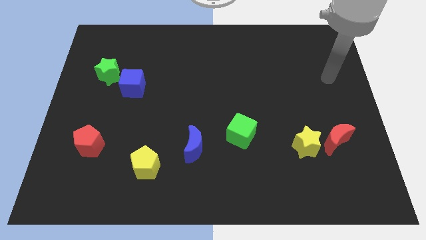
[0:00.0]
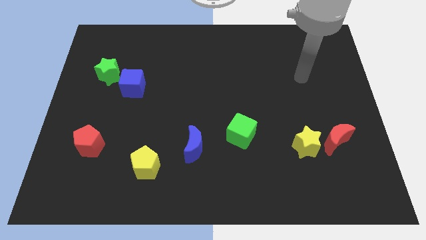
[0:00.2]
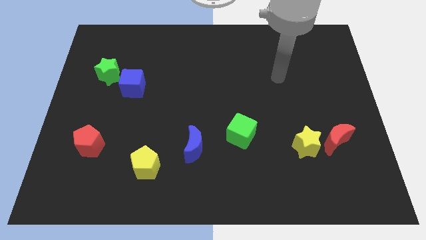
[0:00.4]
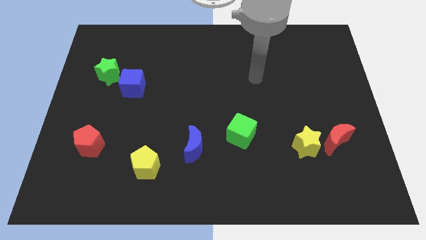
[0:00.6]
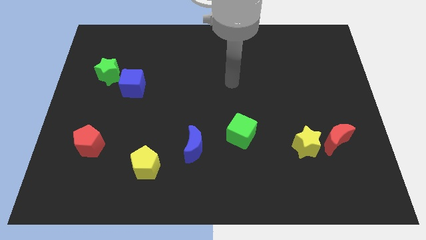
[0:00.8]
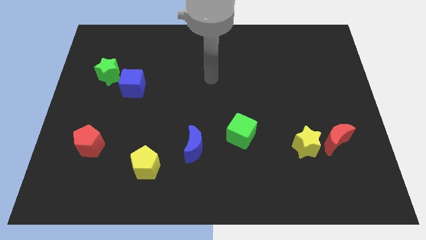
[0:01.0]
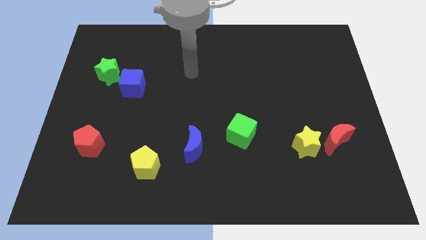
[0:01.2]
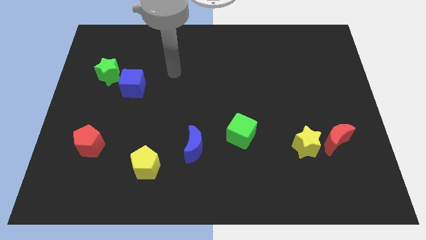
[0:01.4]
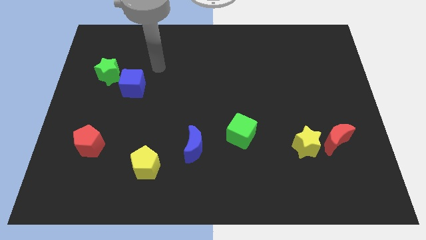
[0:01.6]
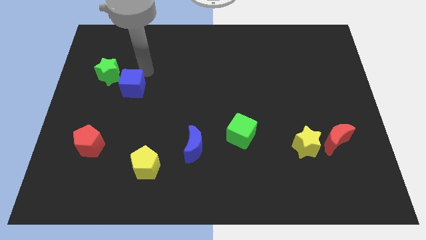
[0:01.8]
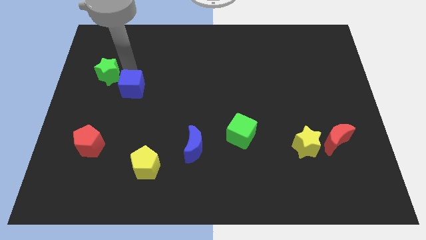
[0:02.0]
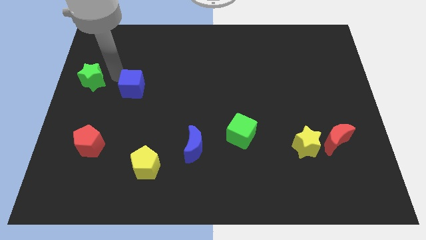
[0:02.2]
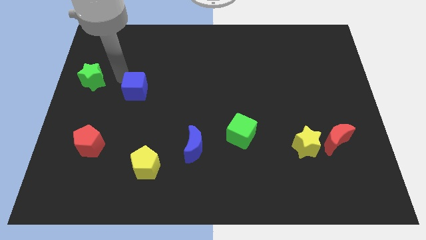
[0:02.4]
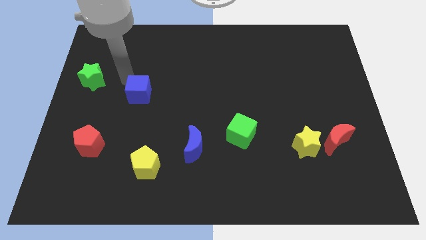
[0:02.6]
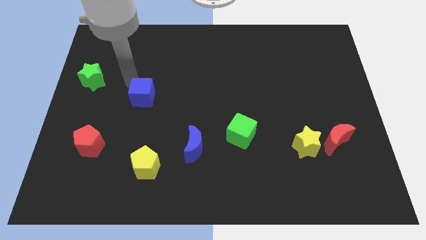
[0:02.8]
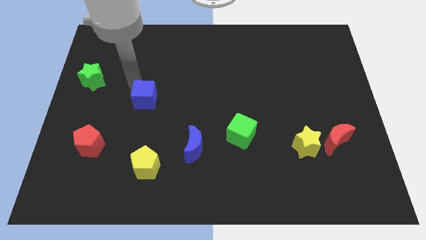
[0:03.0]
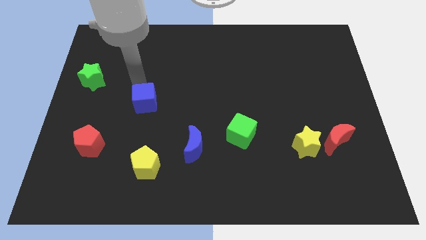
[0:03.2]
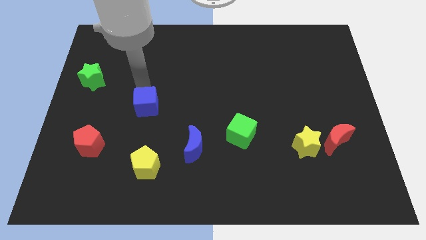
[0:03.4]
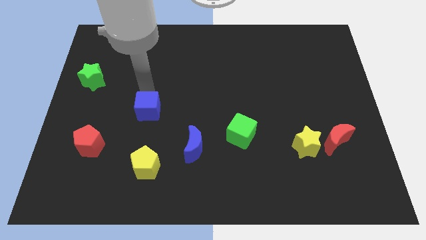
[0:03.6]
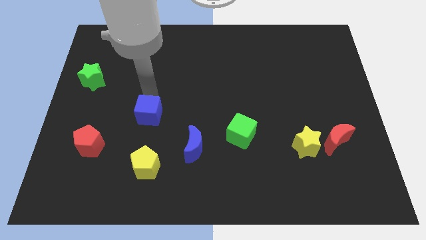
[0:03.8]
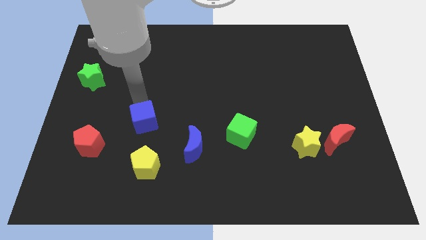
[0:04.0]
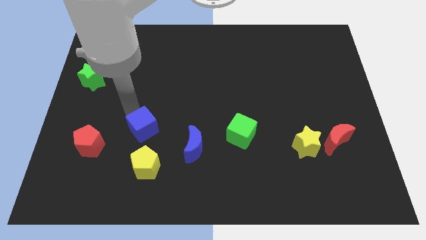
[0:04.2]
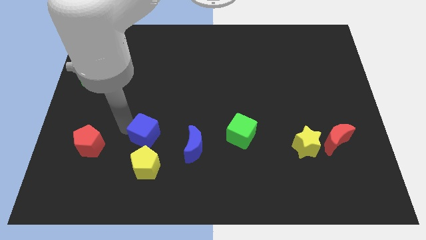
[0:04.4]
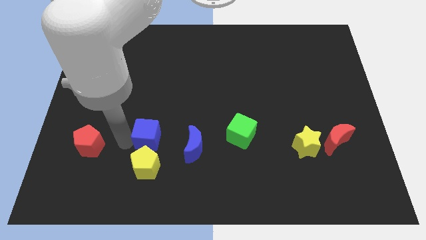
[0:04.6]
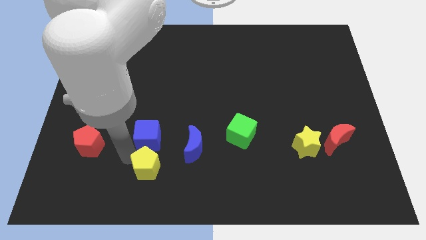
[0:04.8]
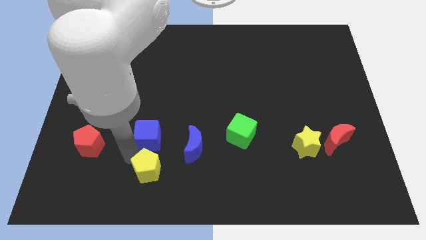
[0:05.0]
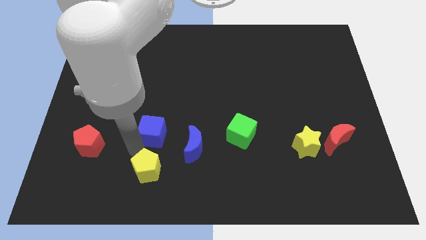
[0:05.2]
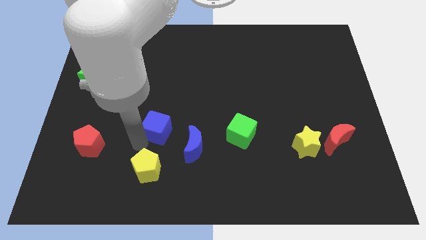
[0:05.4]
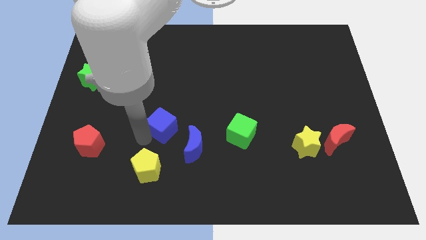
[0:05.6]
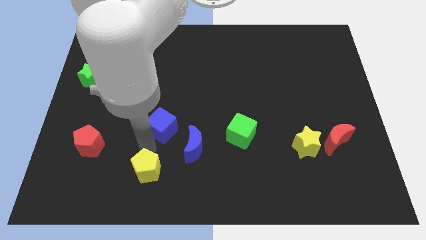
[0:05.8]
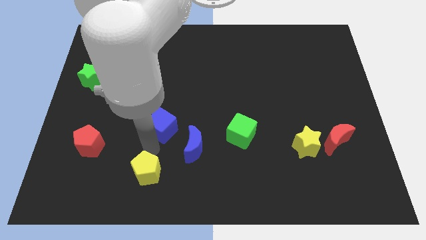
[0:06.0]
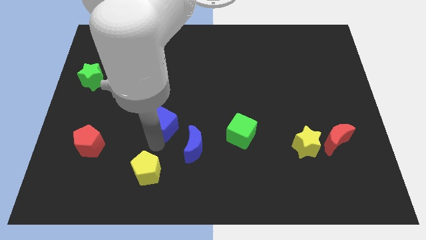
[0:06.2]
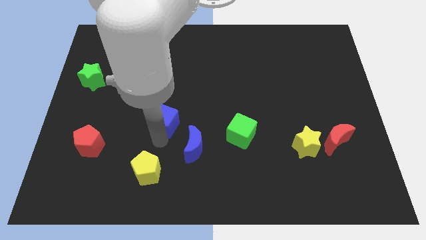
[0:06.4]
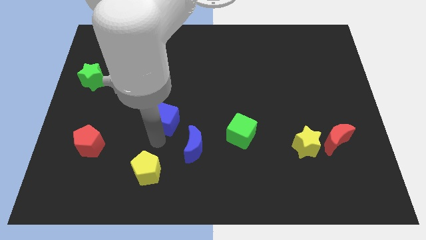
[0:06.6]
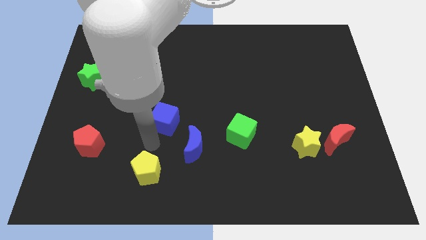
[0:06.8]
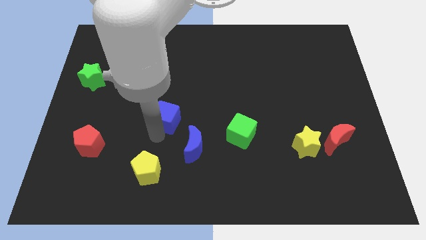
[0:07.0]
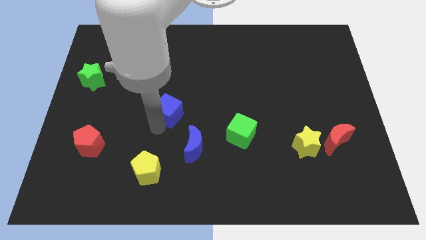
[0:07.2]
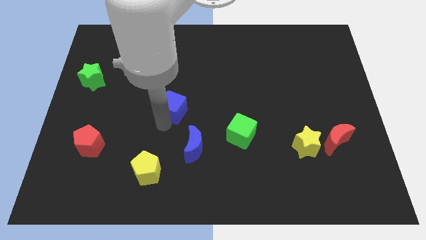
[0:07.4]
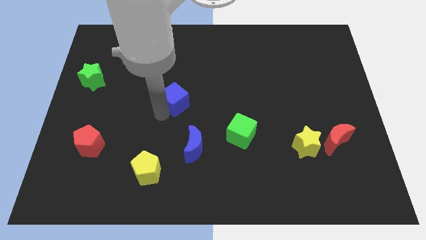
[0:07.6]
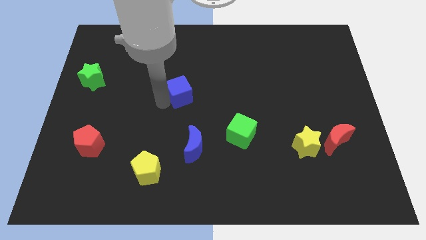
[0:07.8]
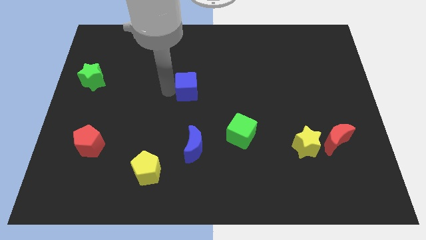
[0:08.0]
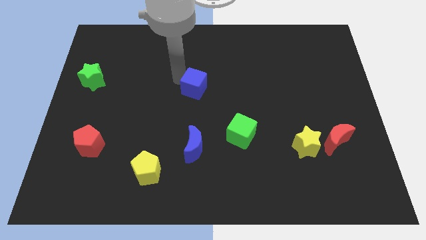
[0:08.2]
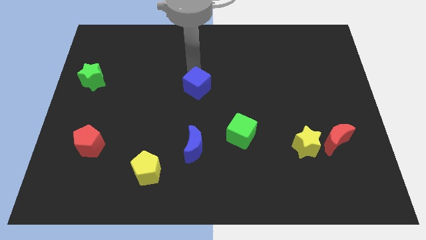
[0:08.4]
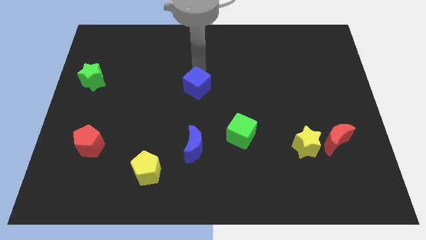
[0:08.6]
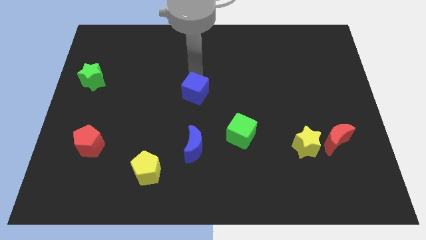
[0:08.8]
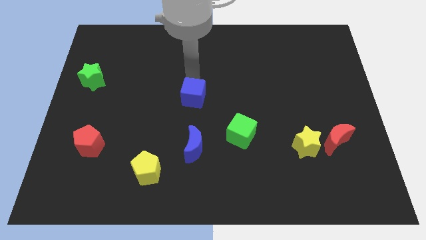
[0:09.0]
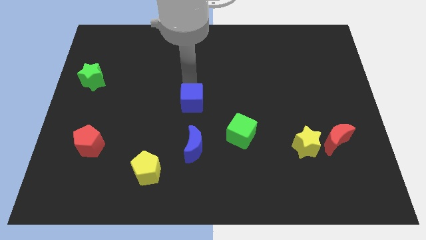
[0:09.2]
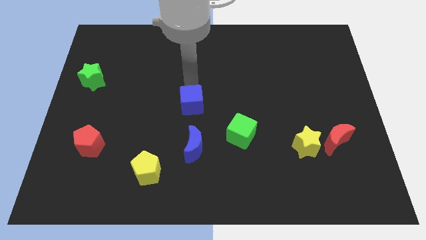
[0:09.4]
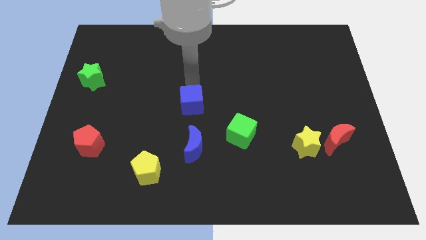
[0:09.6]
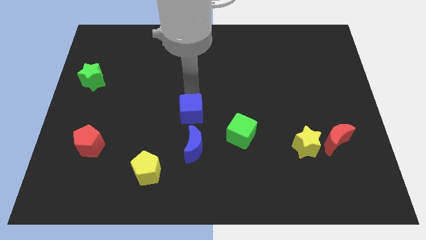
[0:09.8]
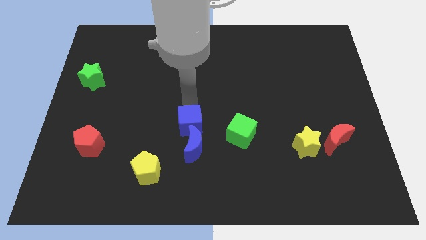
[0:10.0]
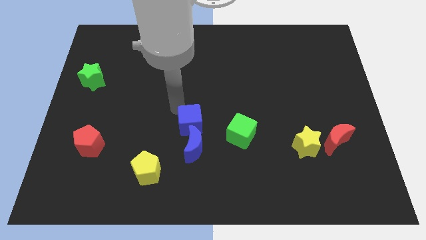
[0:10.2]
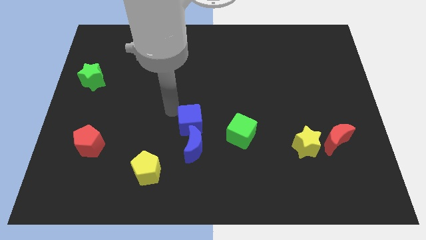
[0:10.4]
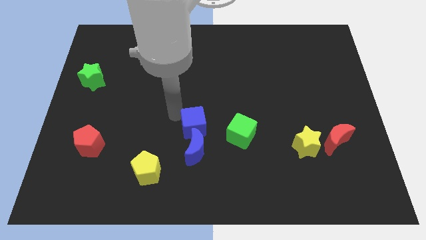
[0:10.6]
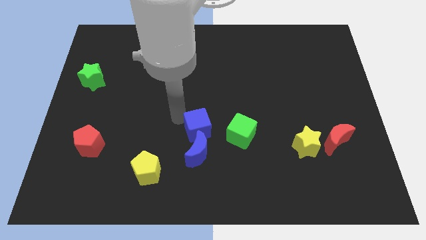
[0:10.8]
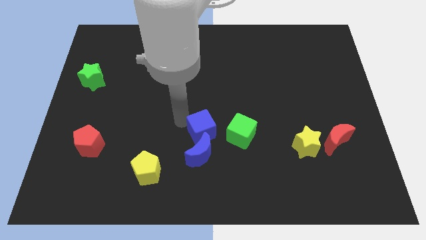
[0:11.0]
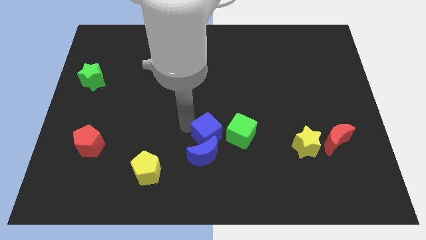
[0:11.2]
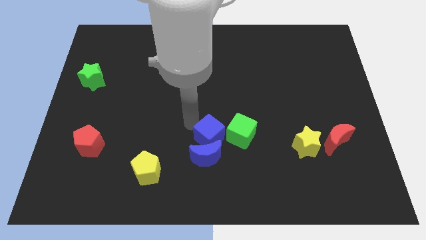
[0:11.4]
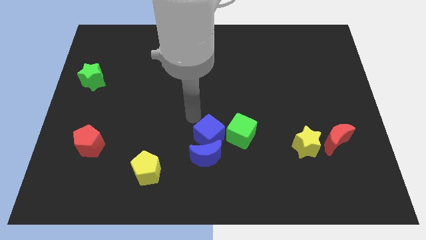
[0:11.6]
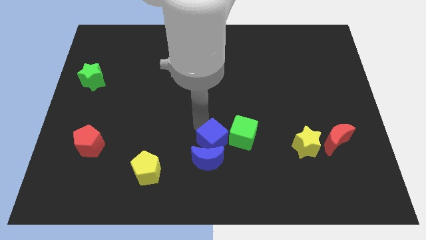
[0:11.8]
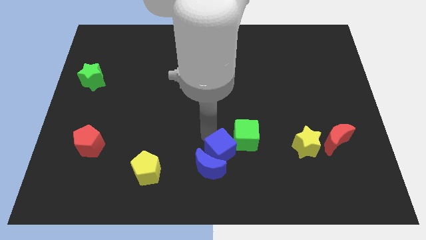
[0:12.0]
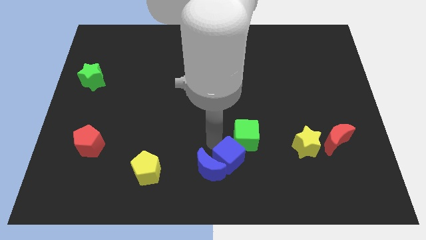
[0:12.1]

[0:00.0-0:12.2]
put the blue cube below the green cube

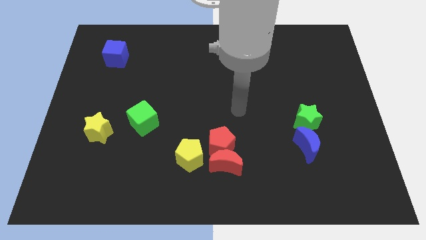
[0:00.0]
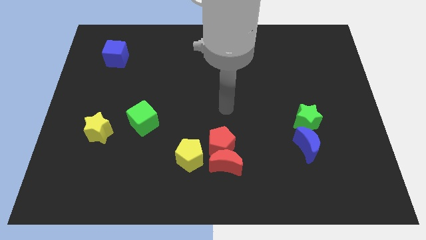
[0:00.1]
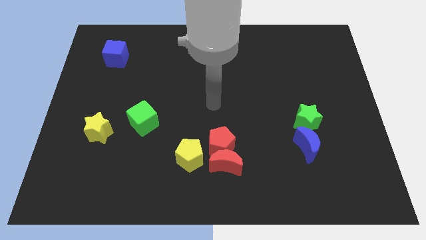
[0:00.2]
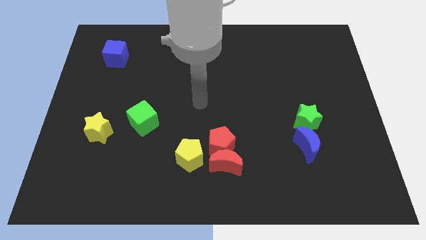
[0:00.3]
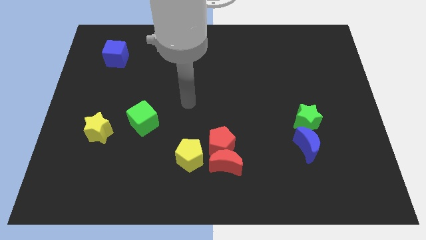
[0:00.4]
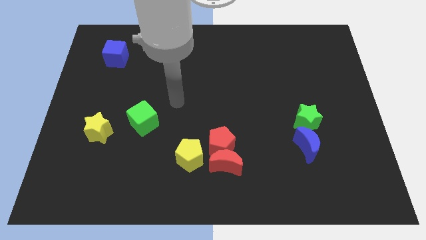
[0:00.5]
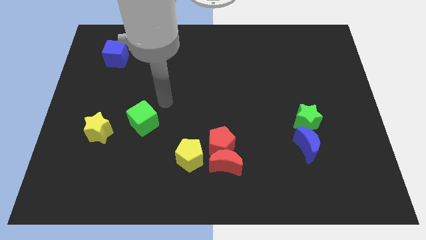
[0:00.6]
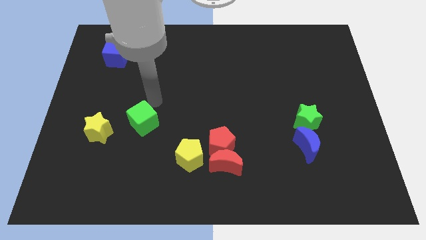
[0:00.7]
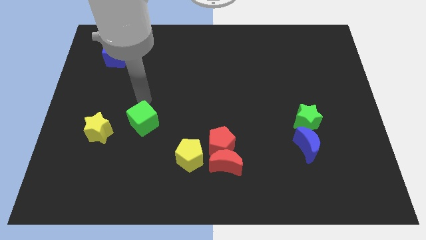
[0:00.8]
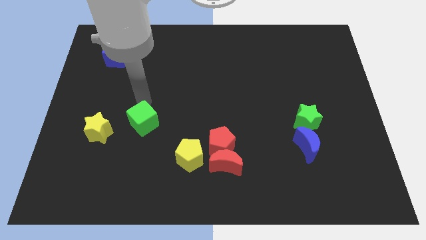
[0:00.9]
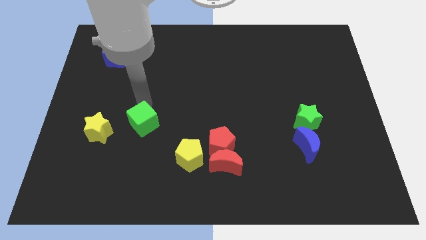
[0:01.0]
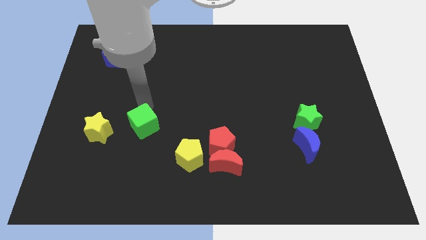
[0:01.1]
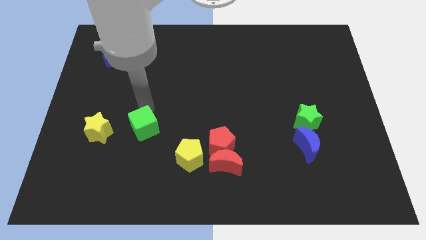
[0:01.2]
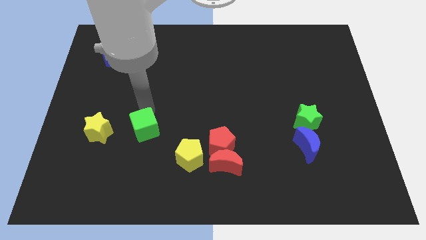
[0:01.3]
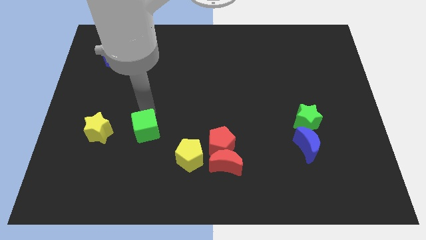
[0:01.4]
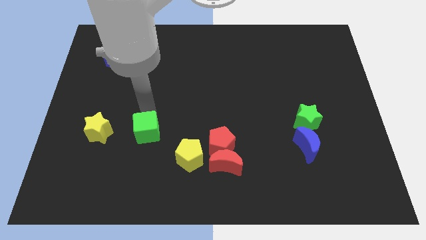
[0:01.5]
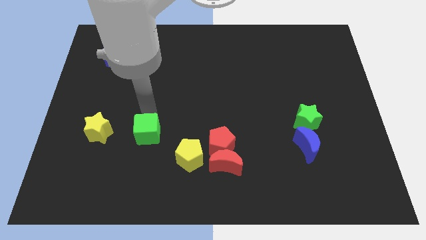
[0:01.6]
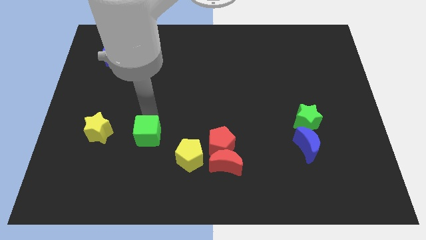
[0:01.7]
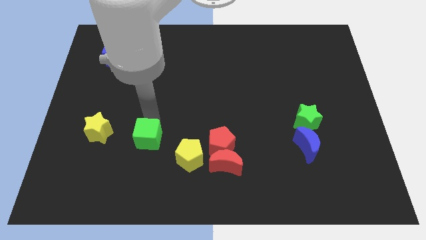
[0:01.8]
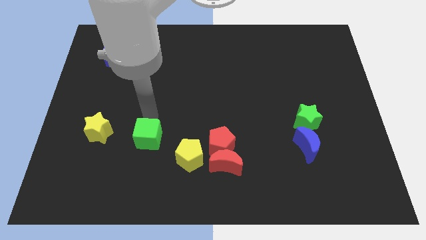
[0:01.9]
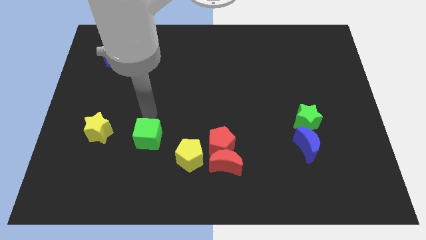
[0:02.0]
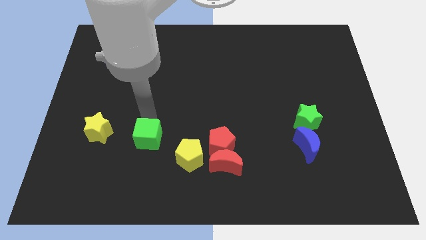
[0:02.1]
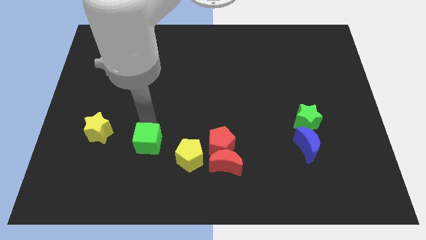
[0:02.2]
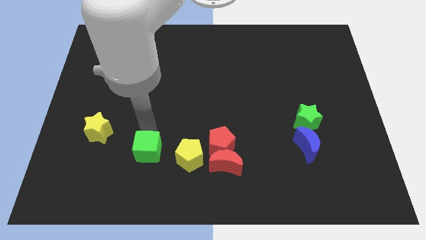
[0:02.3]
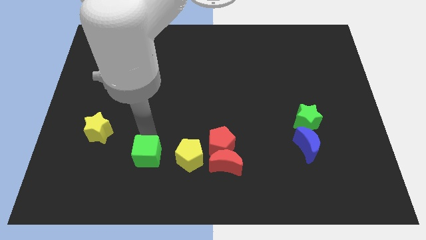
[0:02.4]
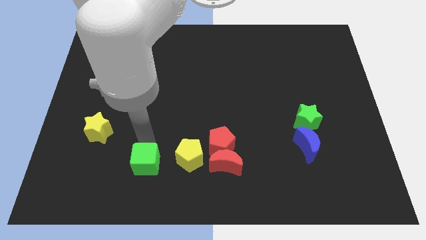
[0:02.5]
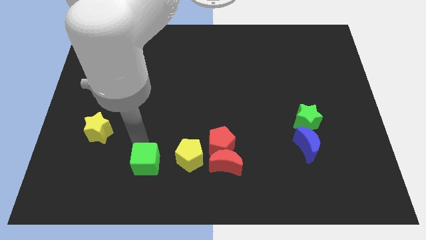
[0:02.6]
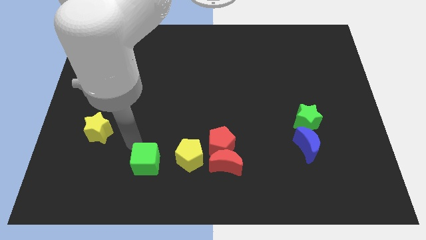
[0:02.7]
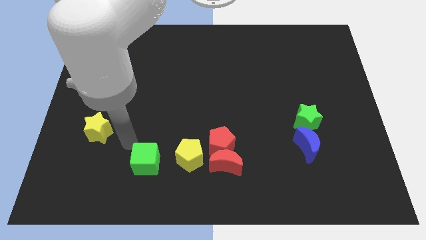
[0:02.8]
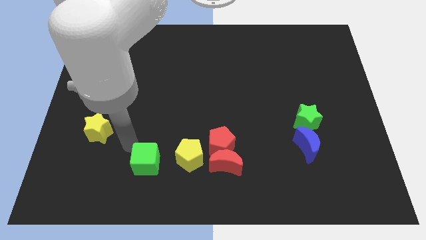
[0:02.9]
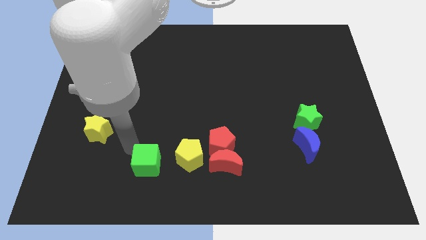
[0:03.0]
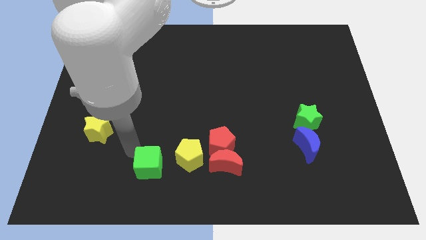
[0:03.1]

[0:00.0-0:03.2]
move the green cube diagonally down and to the left of the yellow pentagon
